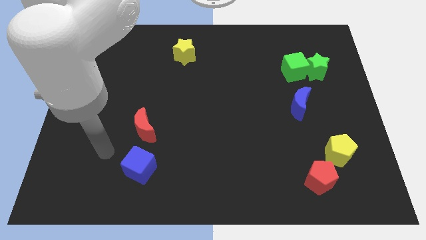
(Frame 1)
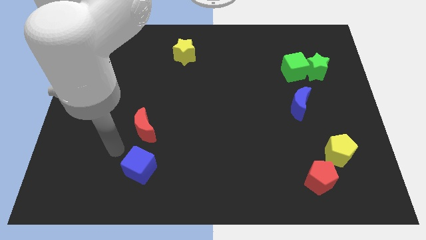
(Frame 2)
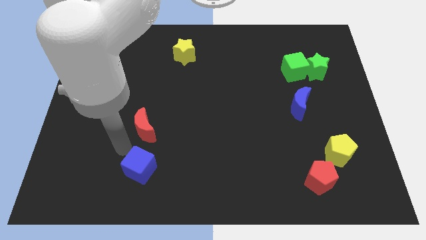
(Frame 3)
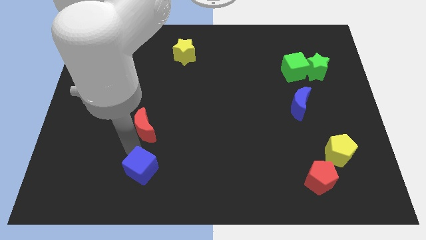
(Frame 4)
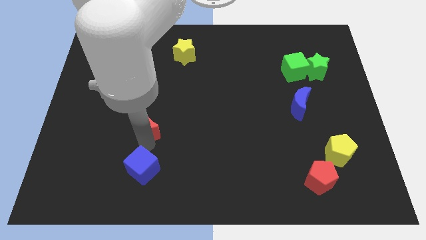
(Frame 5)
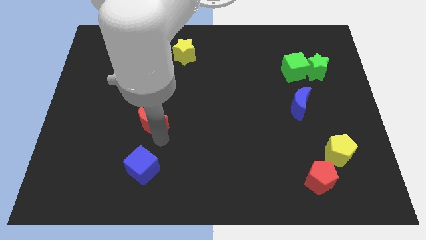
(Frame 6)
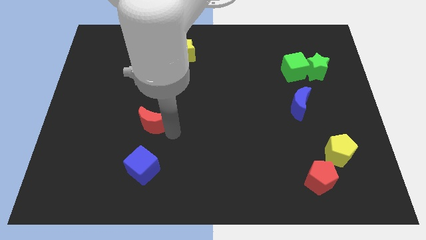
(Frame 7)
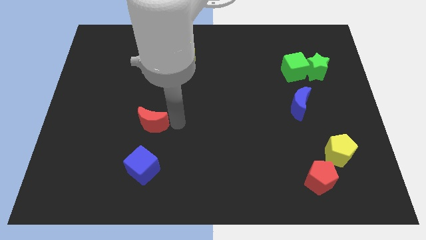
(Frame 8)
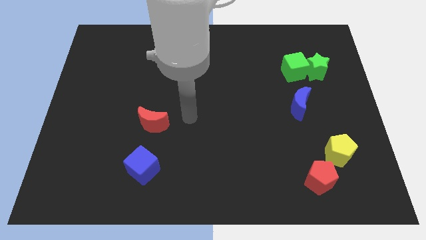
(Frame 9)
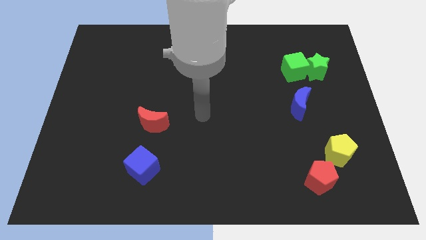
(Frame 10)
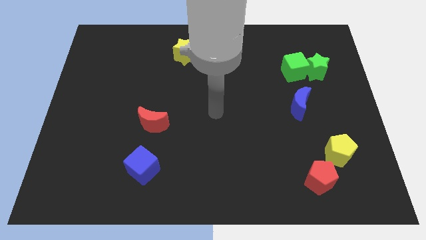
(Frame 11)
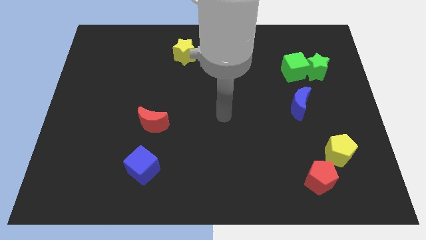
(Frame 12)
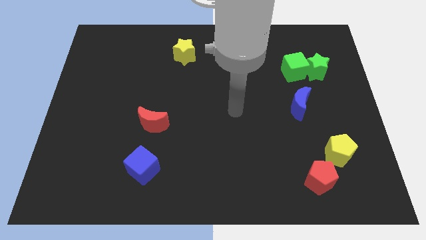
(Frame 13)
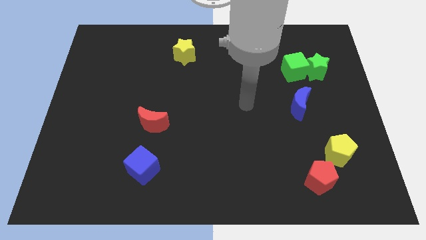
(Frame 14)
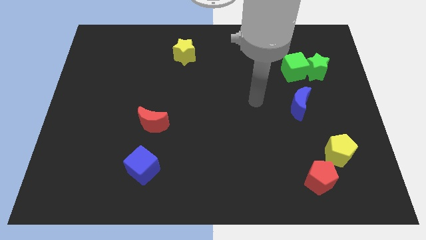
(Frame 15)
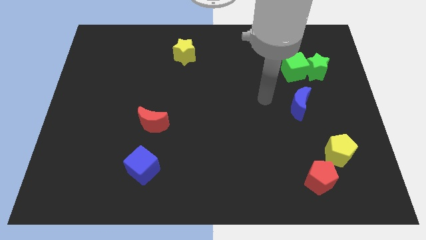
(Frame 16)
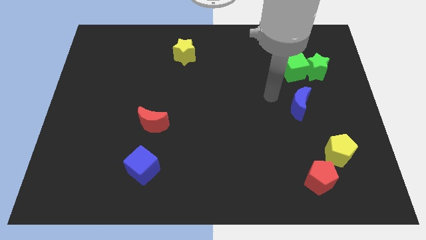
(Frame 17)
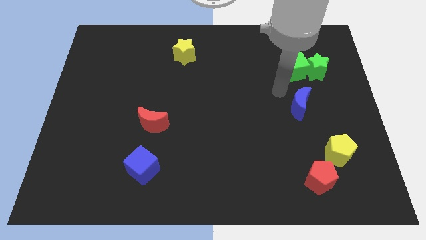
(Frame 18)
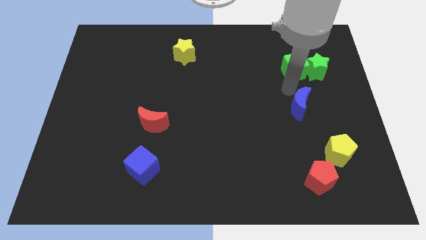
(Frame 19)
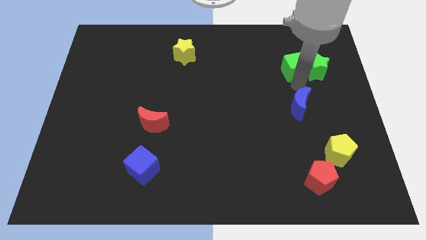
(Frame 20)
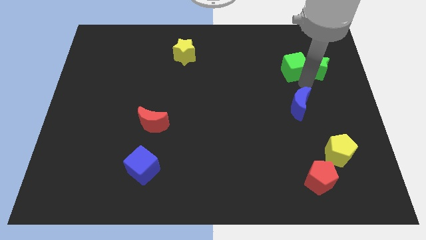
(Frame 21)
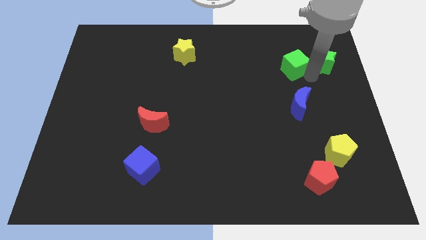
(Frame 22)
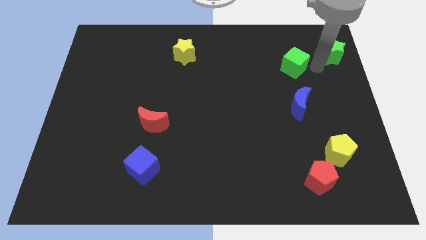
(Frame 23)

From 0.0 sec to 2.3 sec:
move the green cube away from the green star

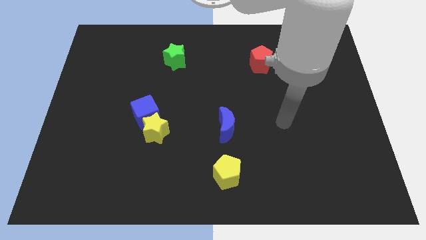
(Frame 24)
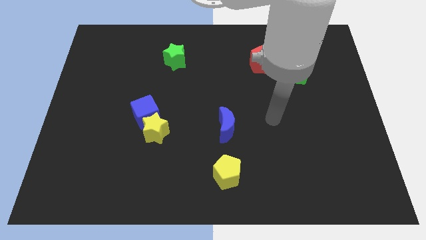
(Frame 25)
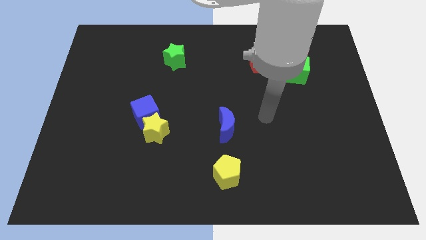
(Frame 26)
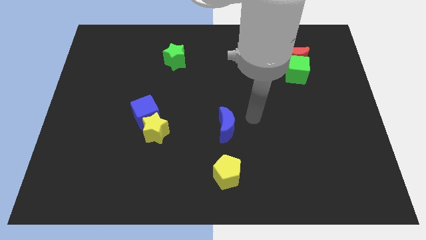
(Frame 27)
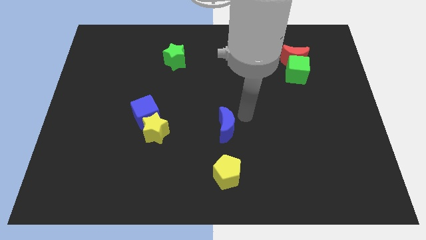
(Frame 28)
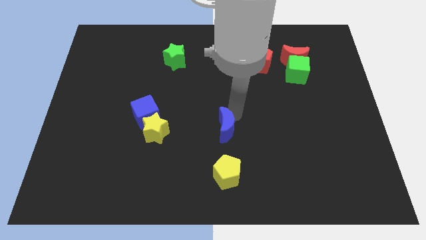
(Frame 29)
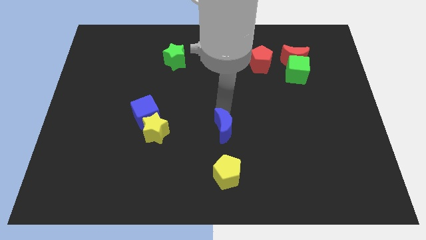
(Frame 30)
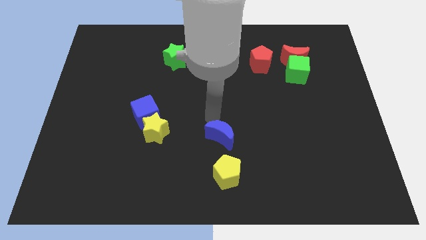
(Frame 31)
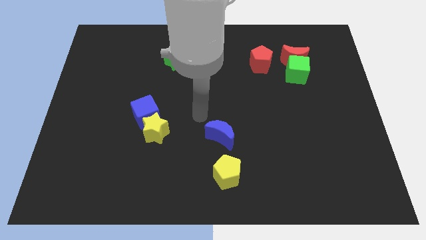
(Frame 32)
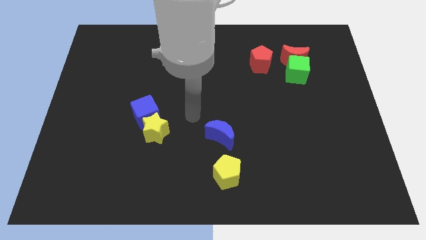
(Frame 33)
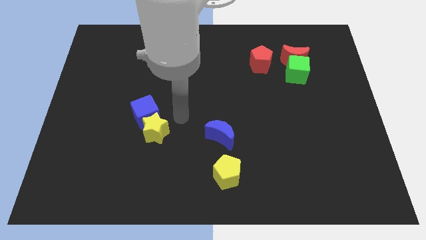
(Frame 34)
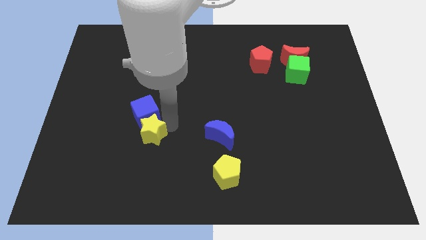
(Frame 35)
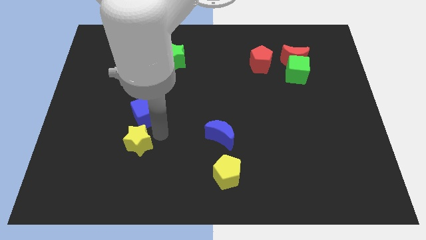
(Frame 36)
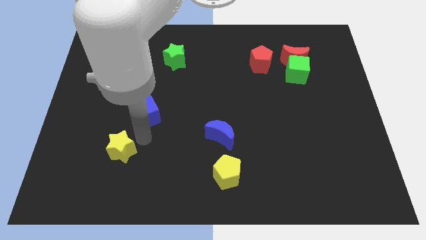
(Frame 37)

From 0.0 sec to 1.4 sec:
pull the blue cube apart from the yellow star

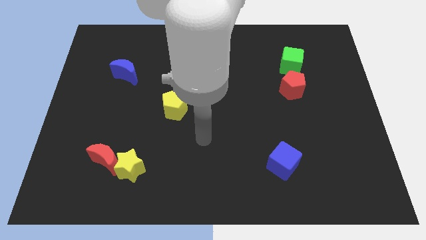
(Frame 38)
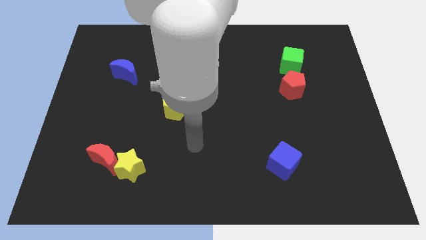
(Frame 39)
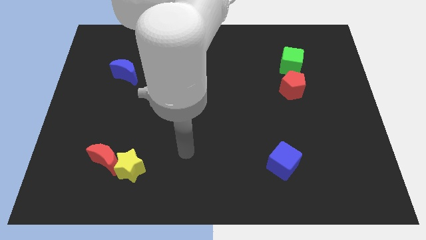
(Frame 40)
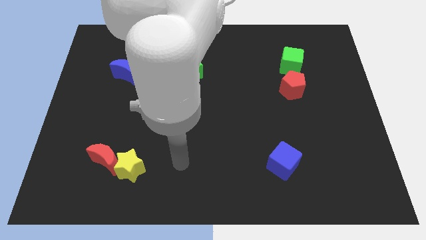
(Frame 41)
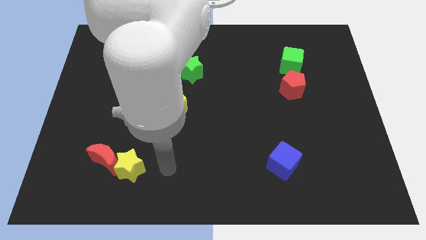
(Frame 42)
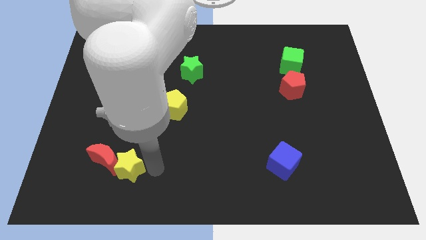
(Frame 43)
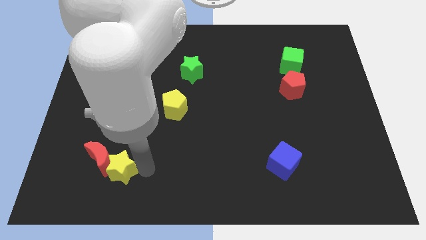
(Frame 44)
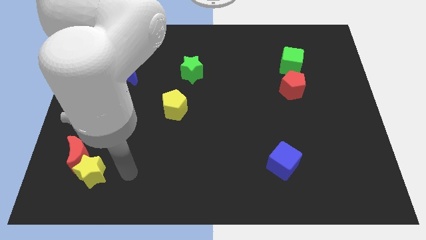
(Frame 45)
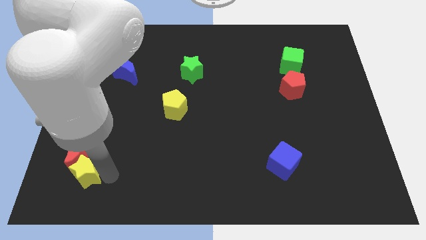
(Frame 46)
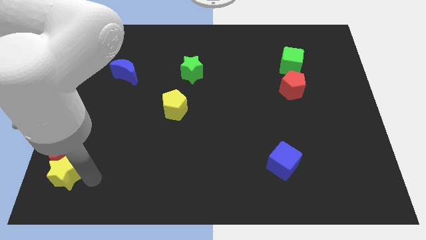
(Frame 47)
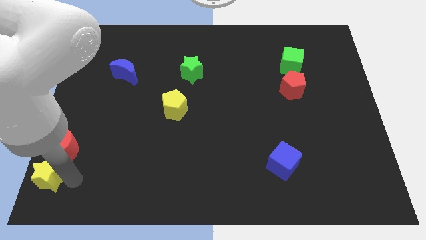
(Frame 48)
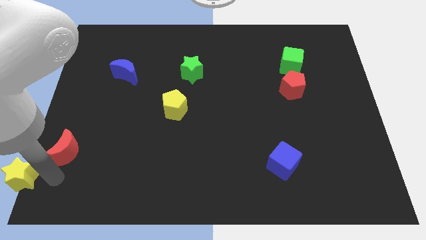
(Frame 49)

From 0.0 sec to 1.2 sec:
pull the red moon apart from the yellow star

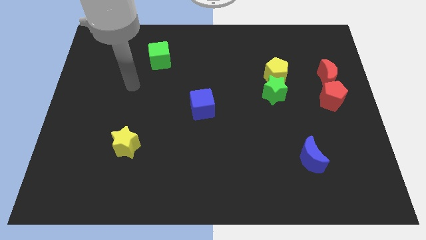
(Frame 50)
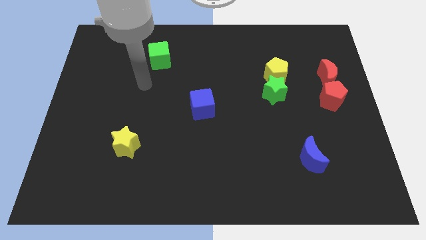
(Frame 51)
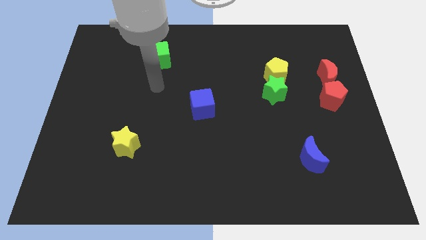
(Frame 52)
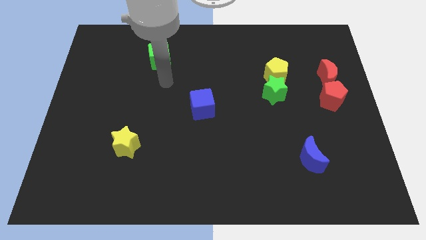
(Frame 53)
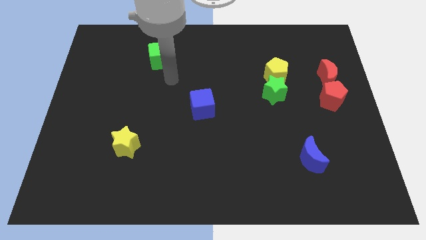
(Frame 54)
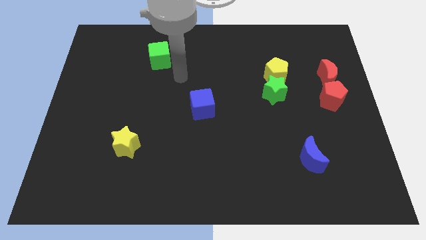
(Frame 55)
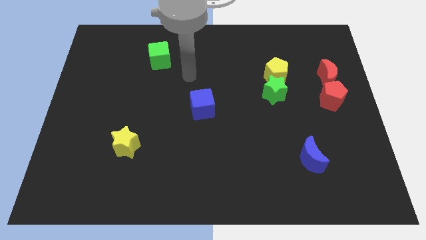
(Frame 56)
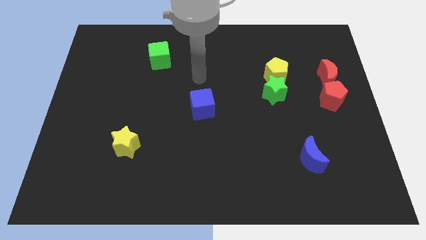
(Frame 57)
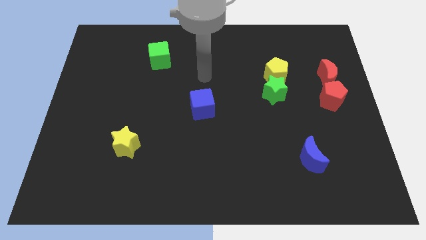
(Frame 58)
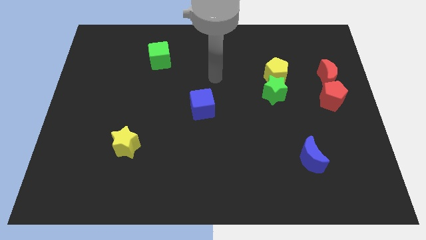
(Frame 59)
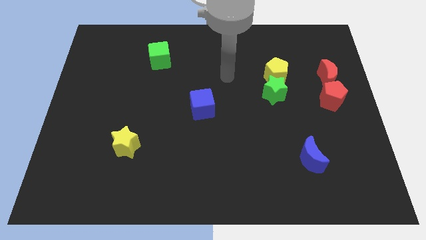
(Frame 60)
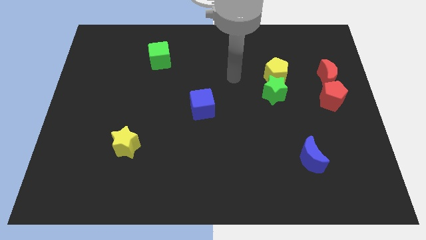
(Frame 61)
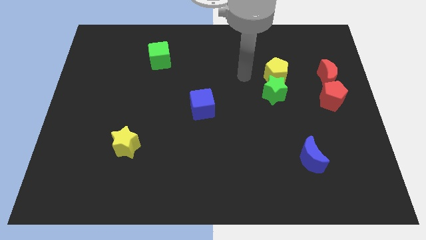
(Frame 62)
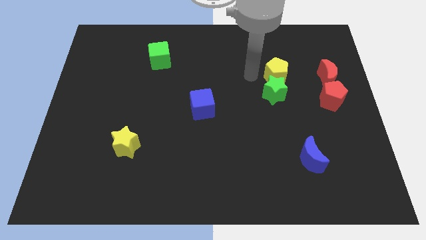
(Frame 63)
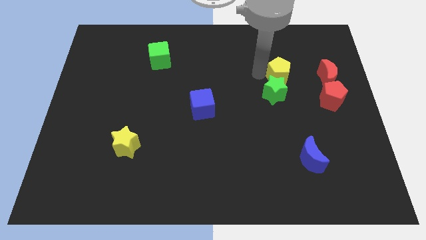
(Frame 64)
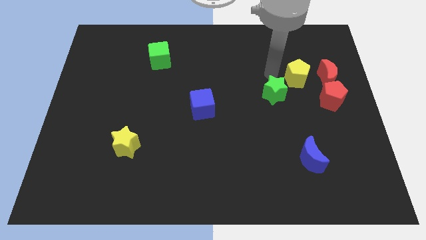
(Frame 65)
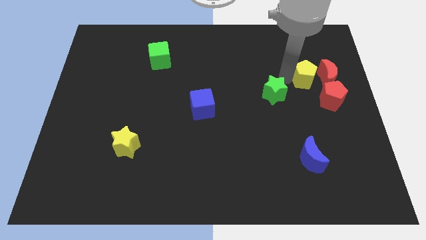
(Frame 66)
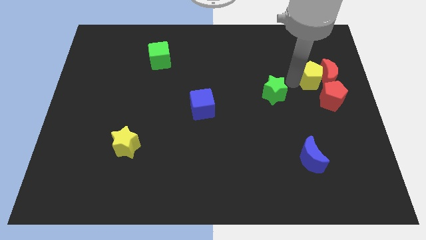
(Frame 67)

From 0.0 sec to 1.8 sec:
pull the green star apart from the yellow pentagon

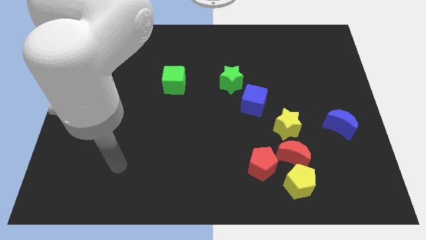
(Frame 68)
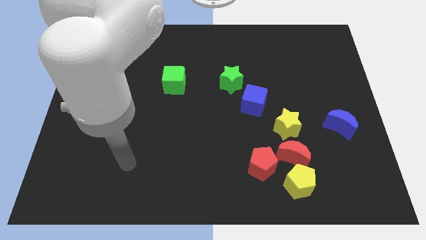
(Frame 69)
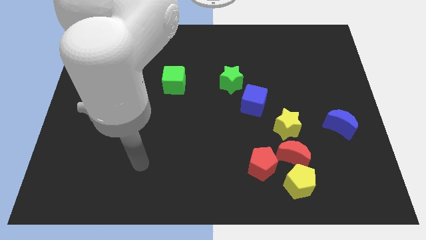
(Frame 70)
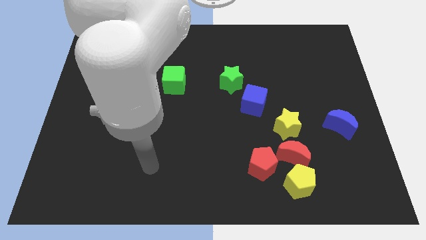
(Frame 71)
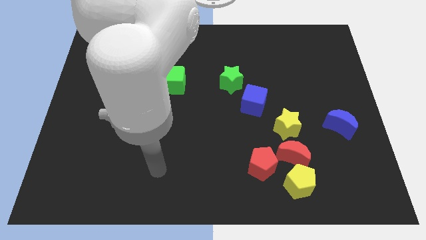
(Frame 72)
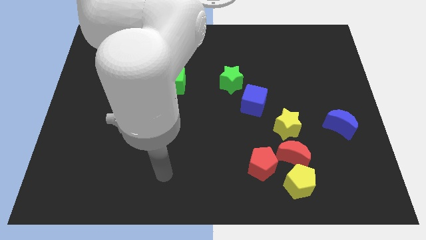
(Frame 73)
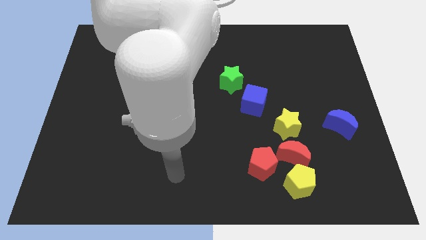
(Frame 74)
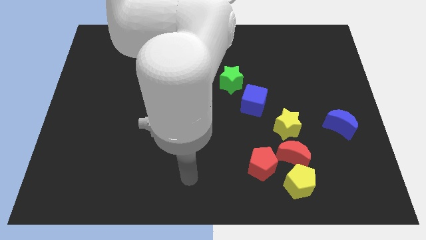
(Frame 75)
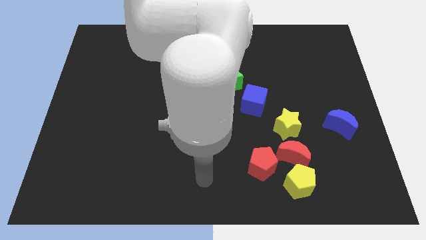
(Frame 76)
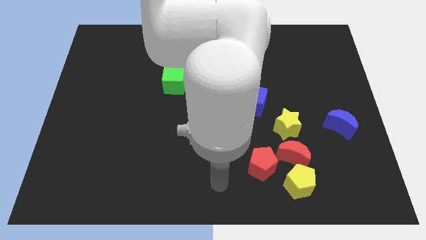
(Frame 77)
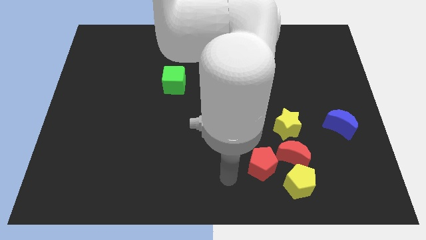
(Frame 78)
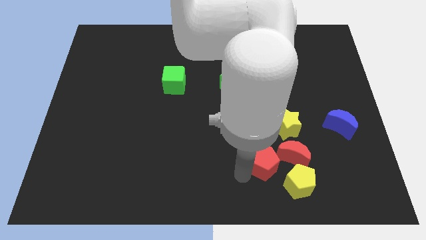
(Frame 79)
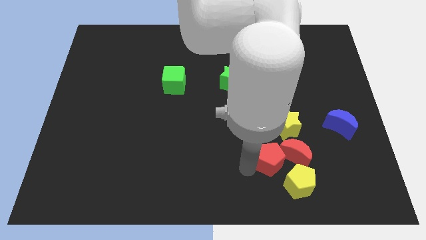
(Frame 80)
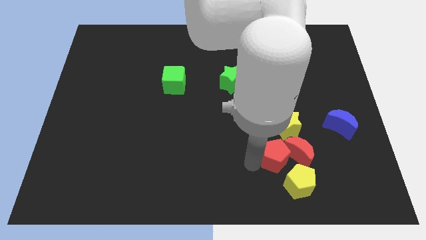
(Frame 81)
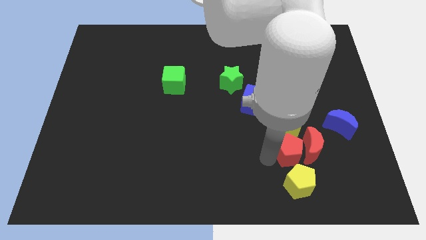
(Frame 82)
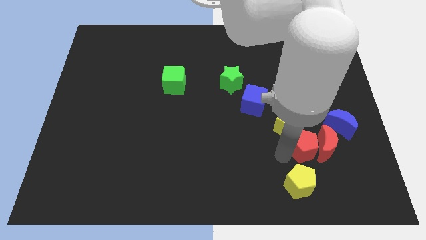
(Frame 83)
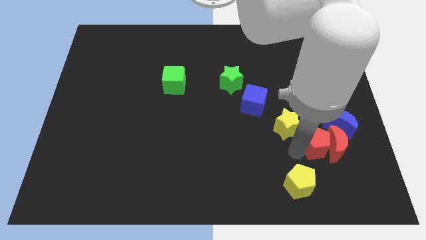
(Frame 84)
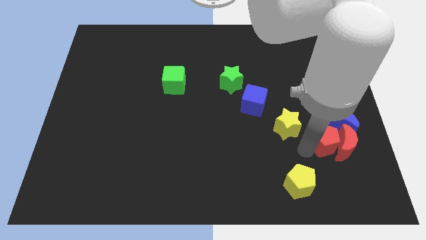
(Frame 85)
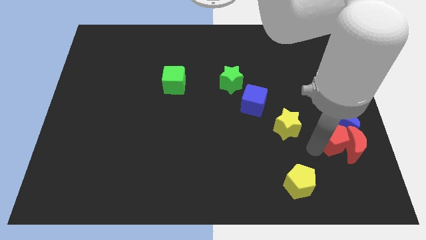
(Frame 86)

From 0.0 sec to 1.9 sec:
pull the red moon apart from the yellow pentagon, red pentagon, and yellow star

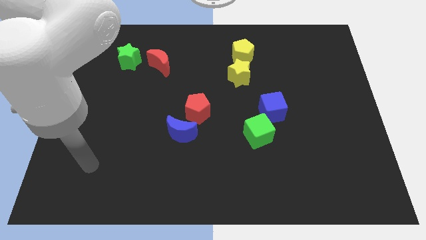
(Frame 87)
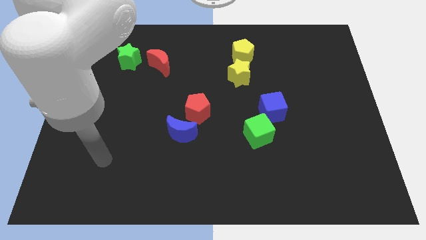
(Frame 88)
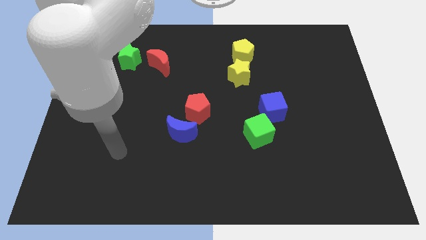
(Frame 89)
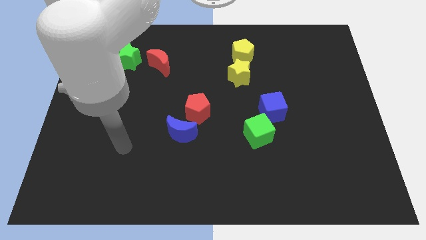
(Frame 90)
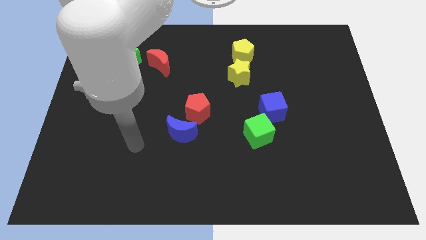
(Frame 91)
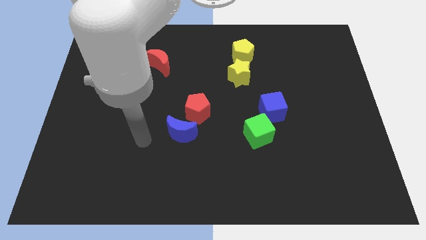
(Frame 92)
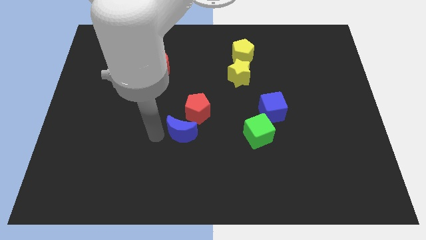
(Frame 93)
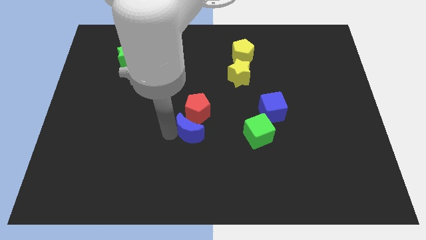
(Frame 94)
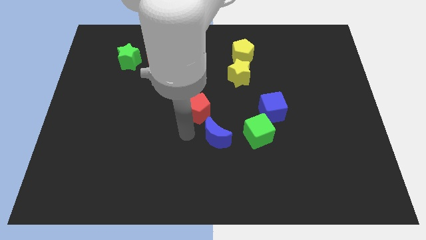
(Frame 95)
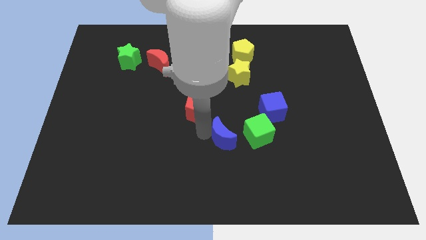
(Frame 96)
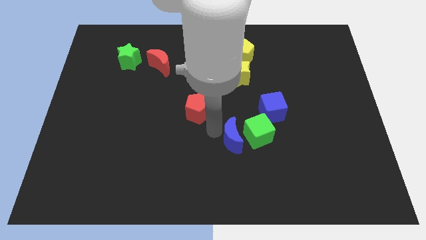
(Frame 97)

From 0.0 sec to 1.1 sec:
pull the red pentagon apart from the blue moon
